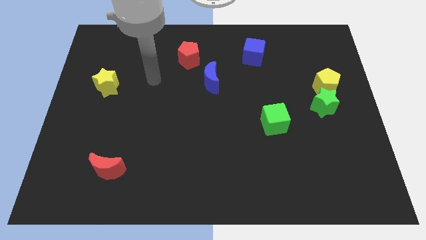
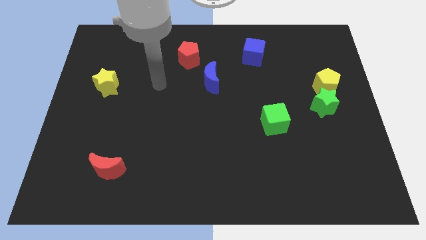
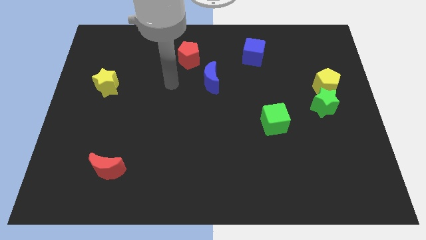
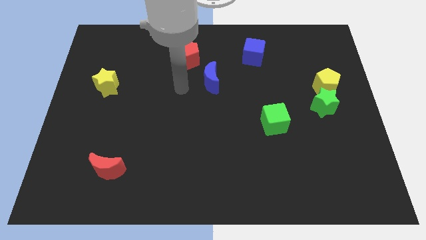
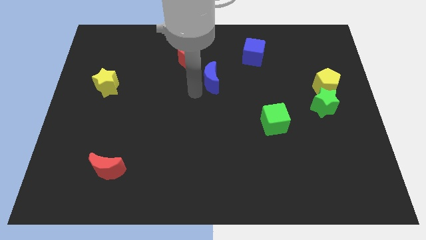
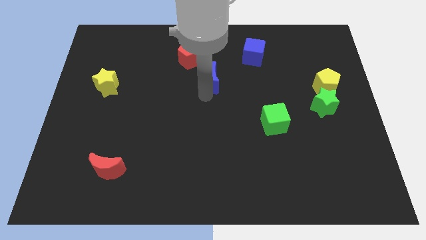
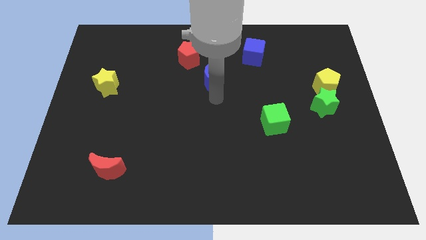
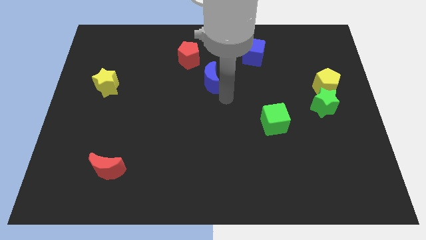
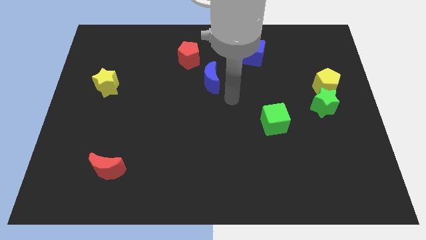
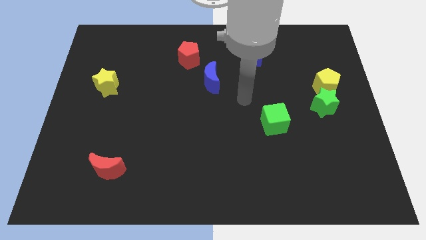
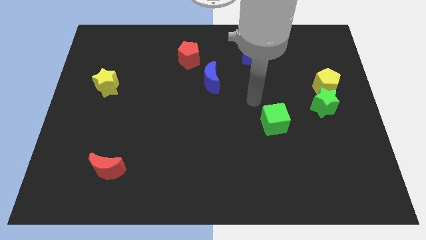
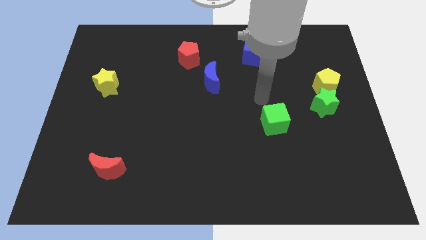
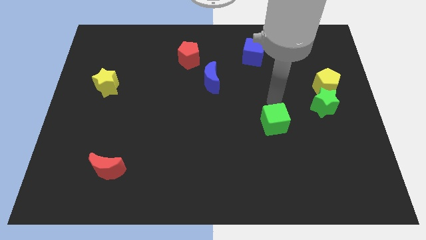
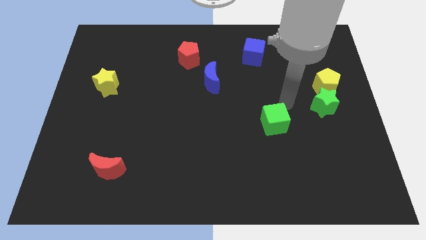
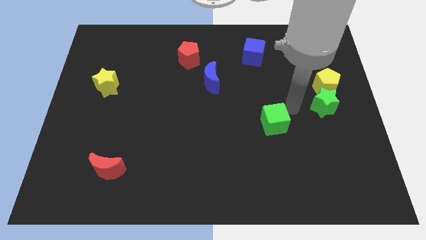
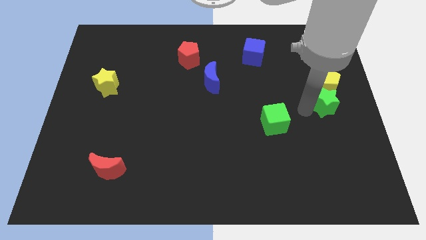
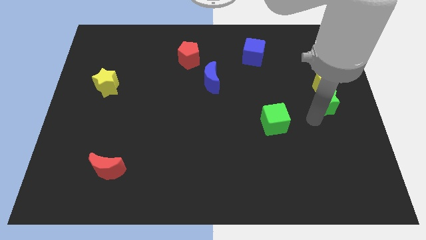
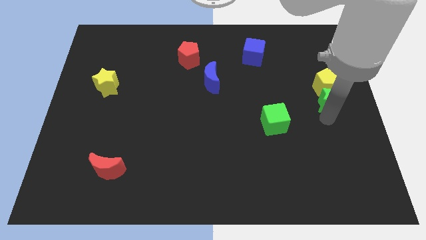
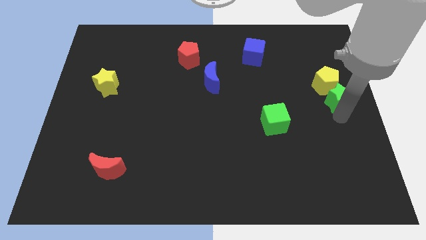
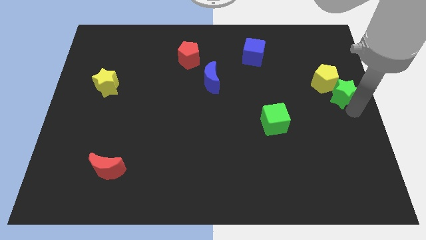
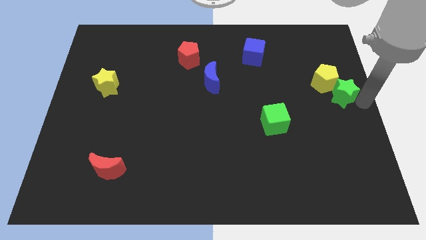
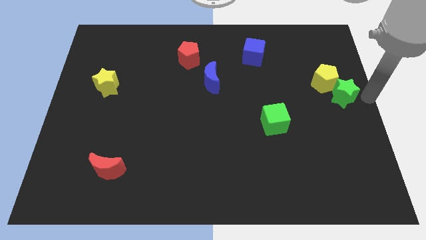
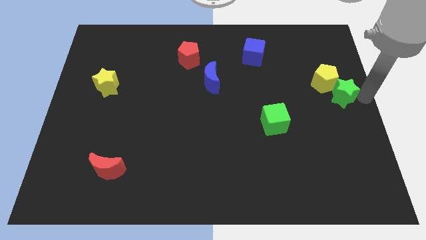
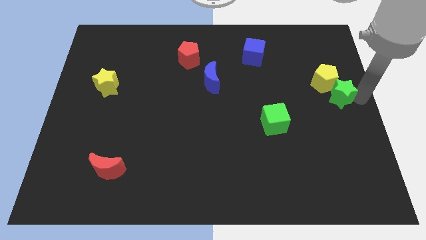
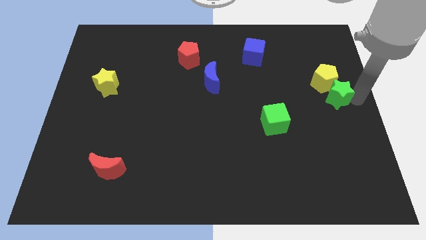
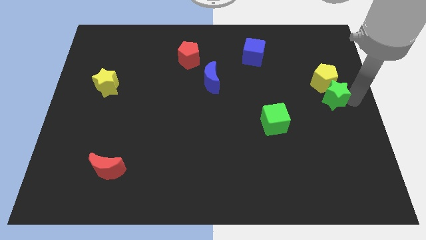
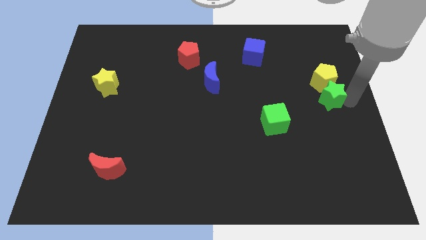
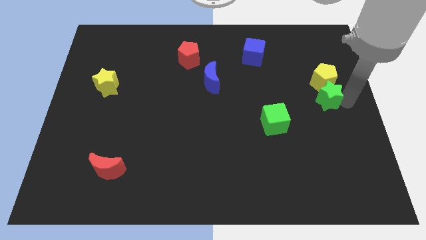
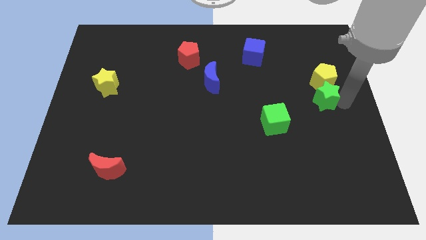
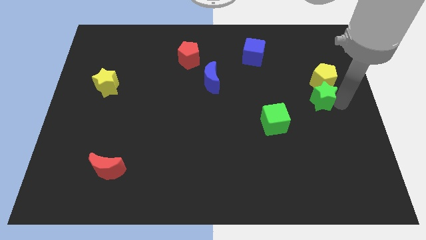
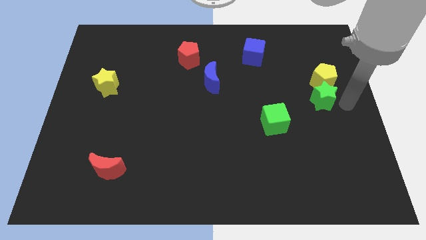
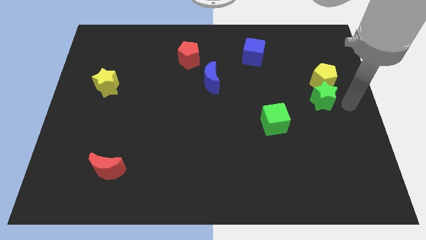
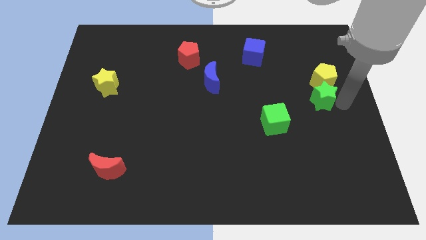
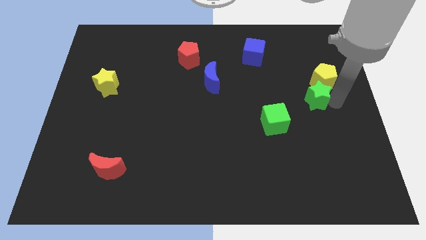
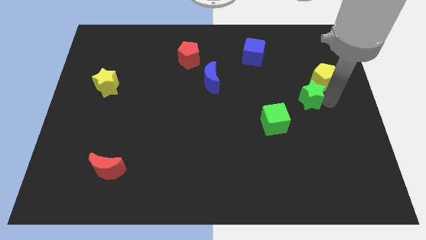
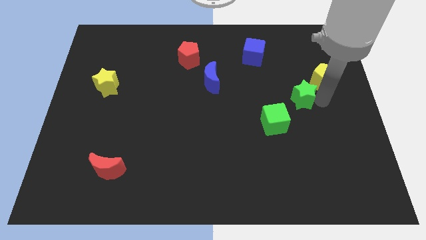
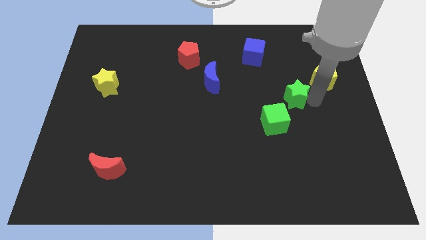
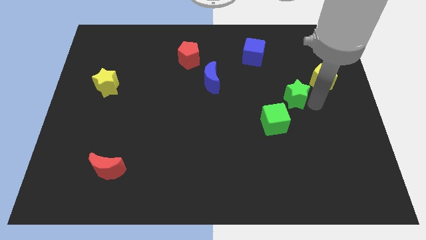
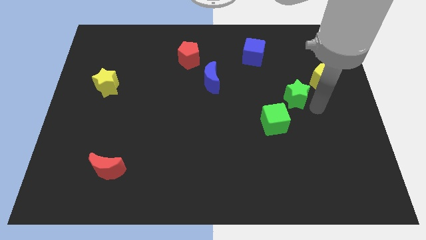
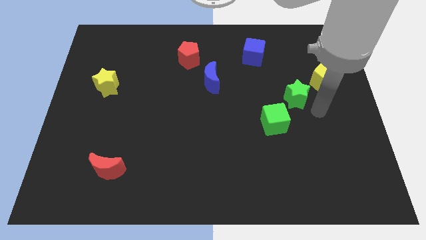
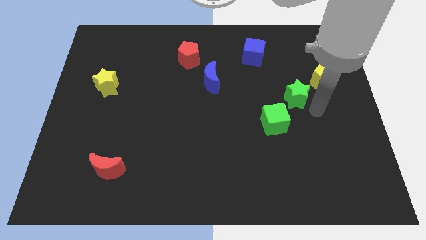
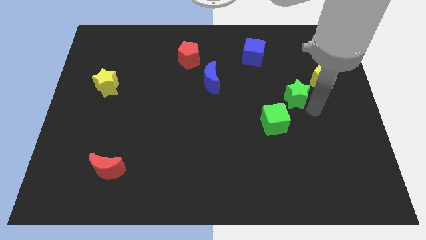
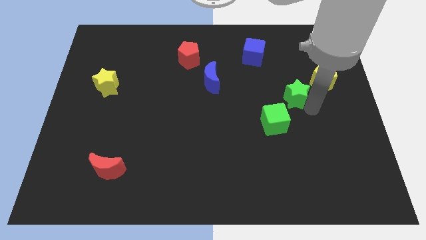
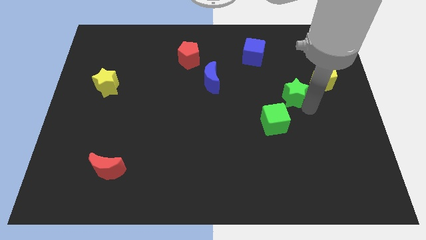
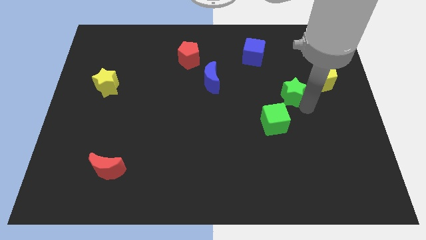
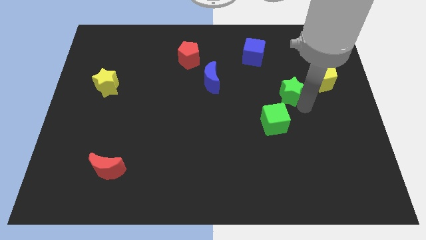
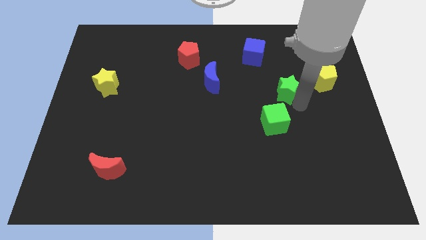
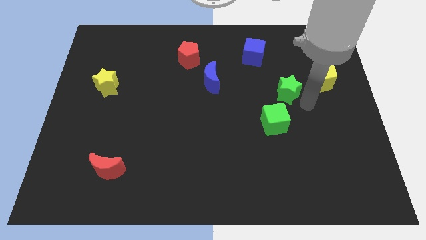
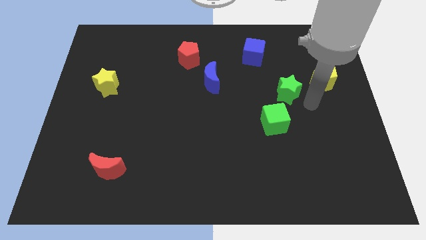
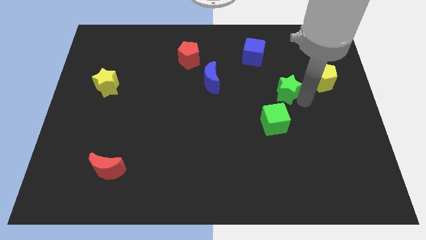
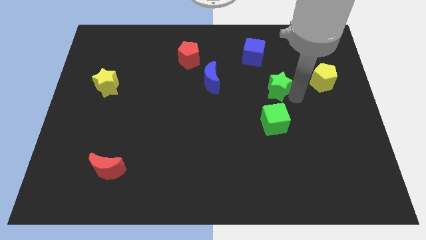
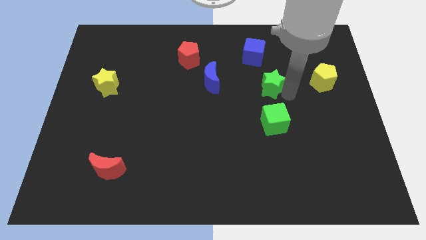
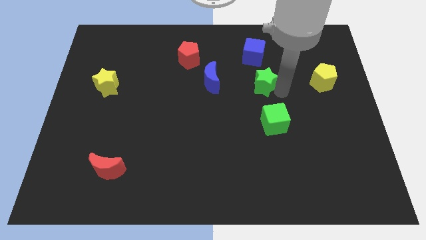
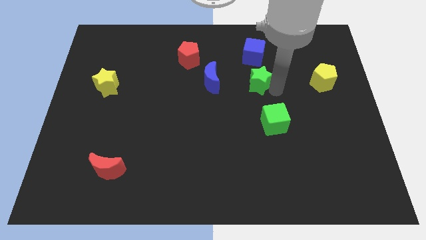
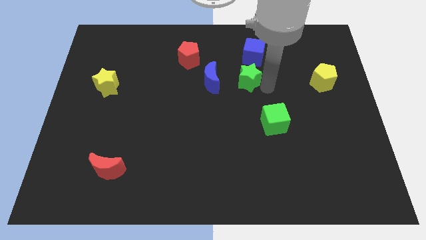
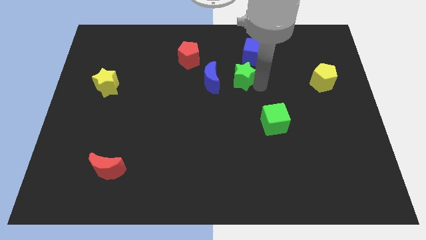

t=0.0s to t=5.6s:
put the green star diagonally up and to the right of the blue moon

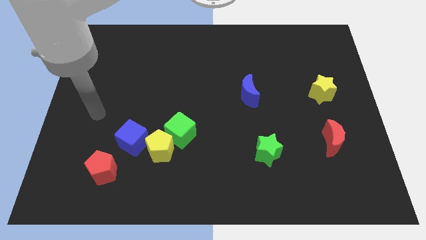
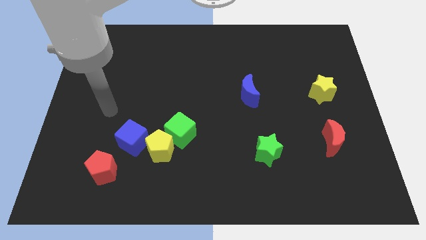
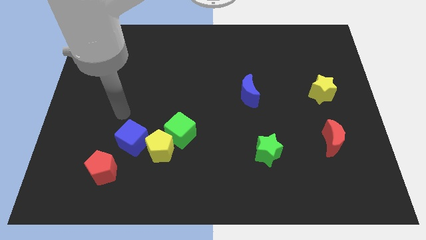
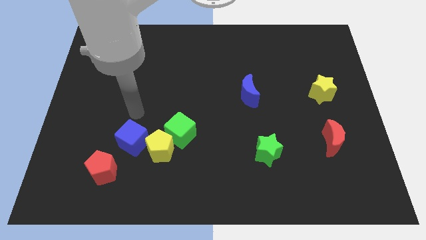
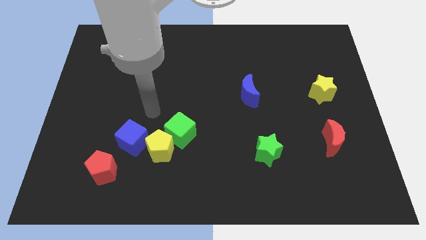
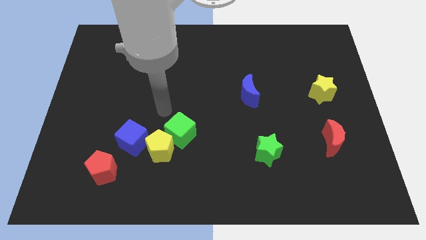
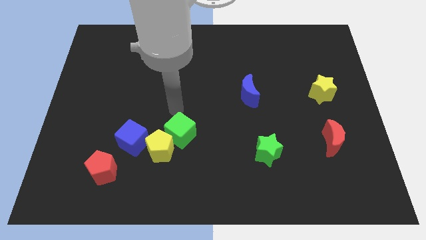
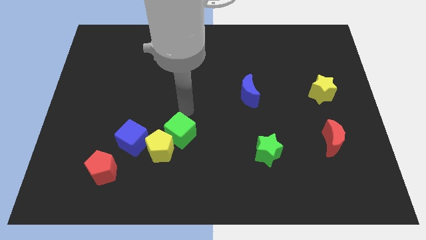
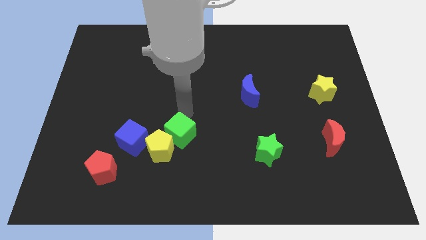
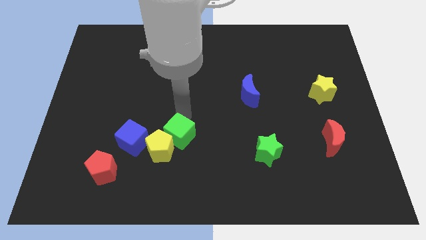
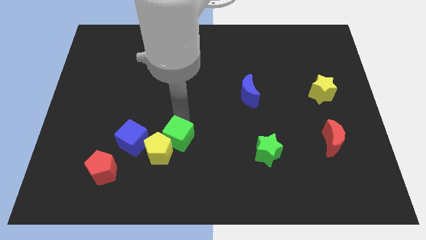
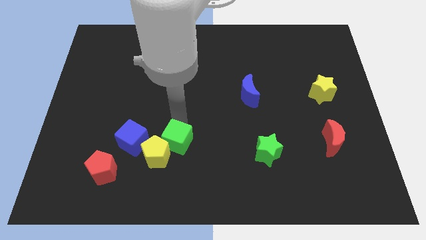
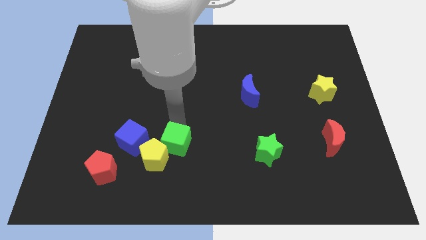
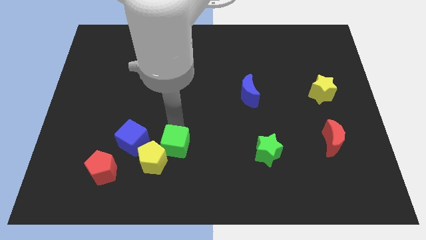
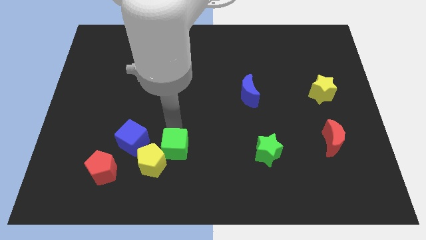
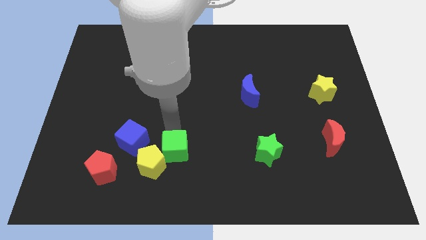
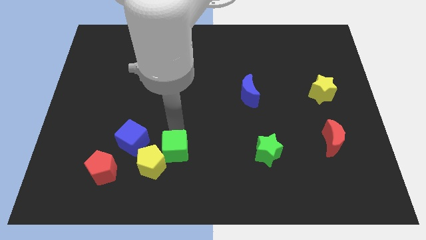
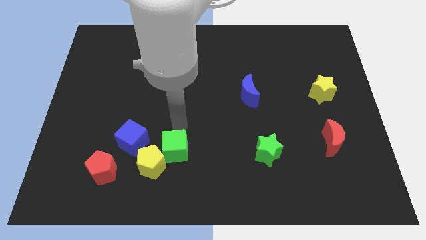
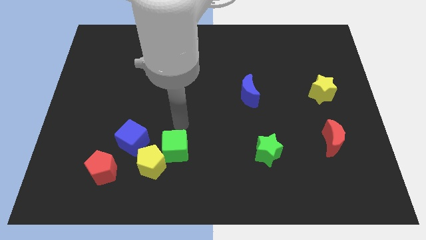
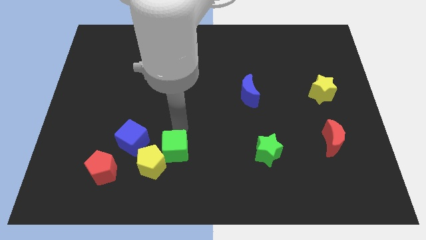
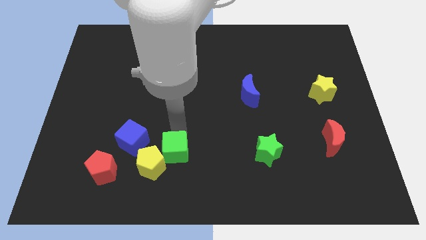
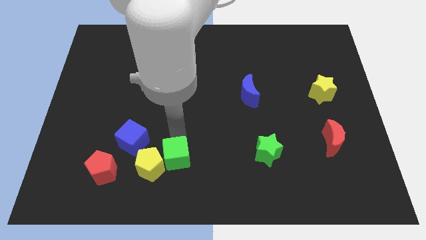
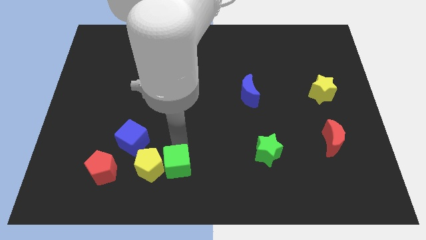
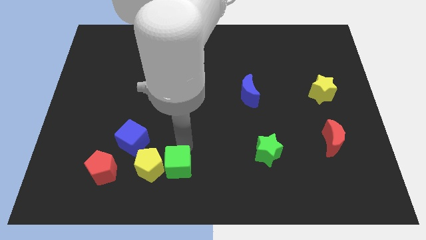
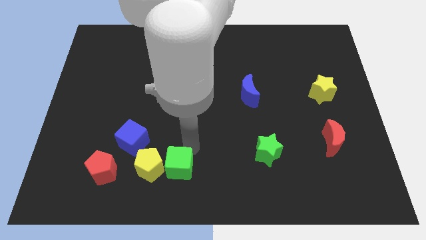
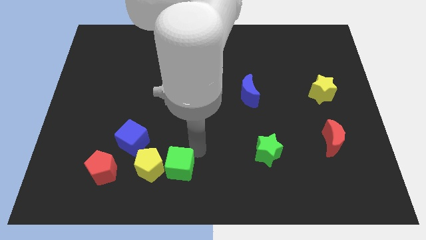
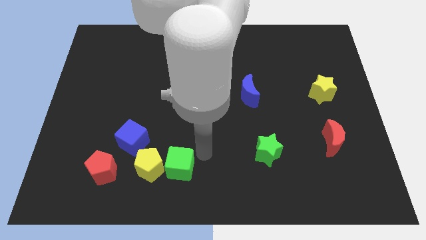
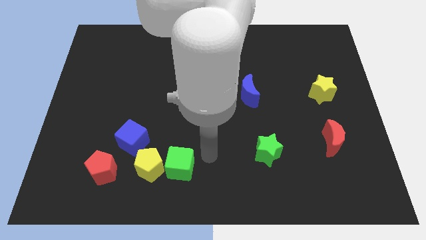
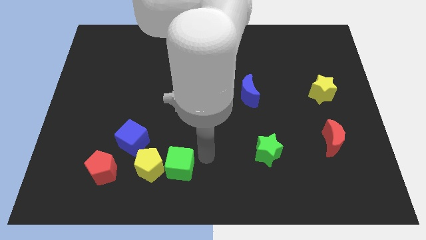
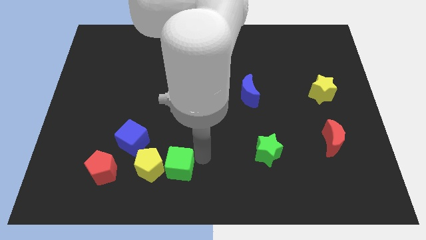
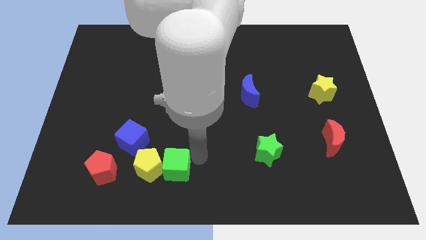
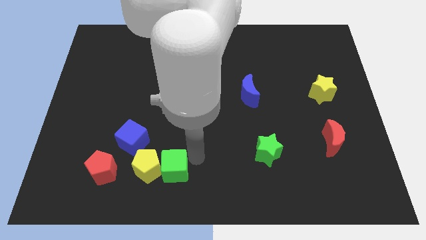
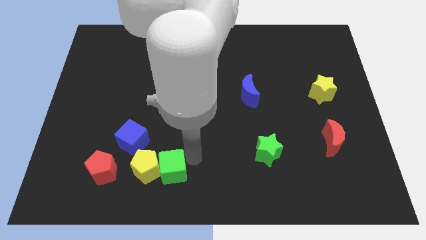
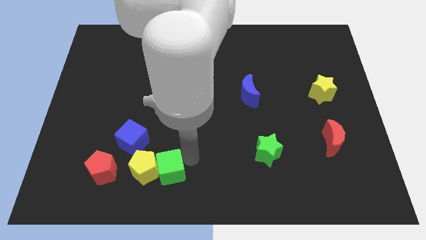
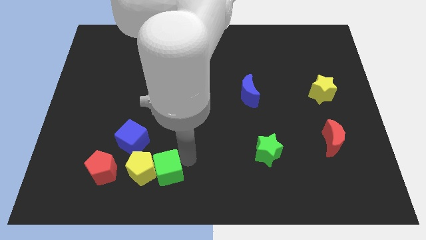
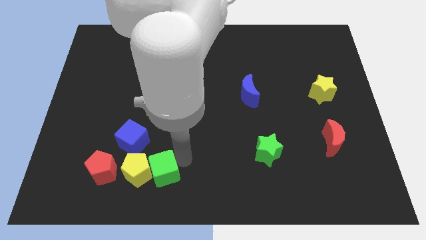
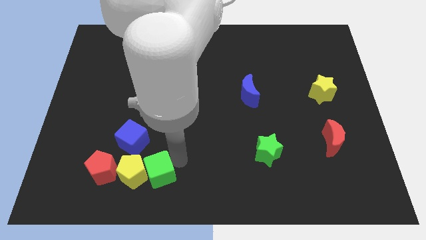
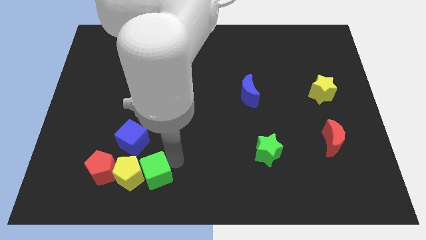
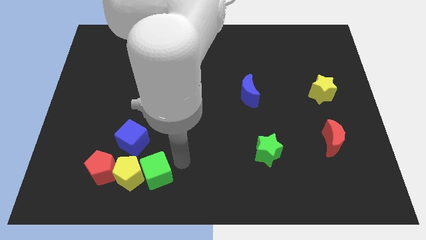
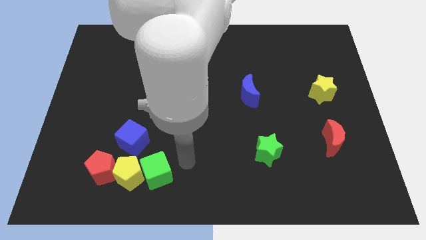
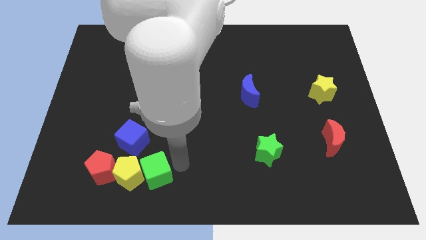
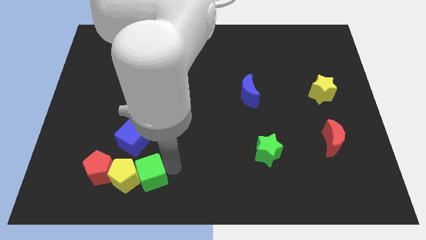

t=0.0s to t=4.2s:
push the green cube to the bottom side of the blue cube
